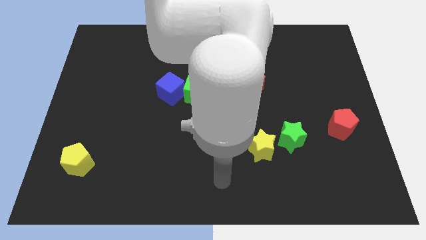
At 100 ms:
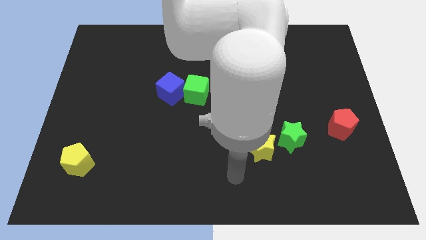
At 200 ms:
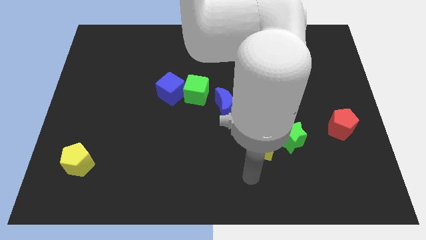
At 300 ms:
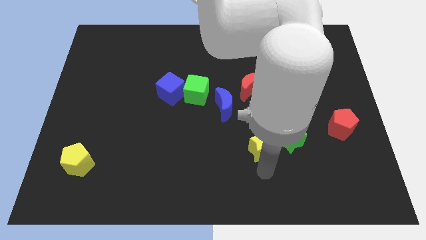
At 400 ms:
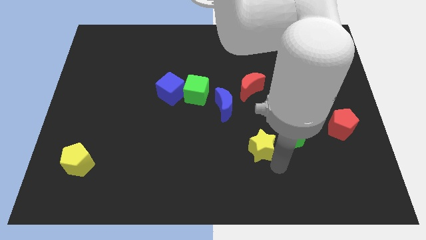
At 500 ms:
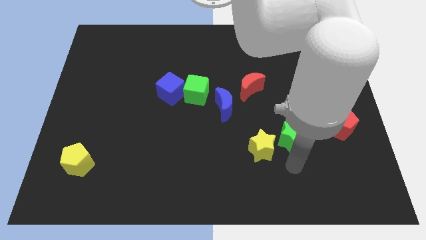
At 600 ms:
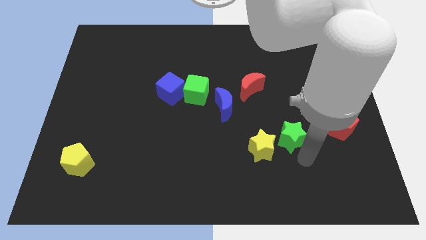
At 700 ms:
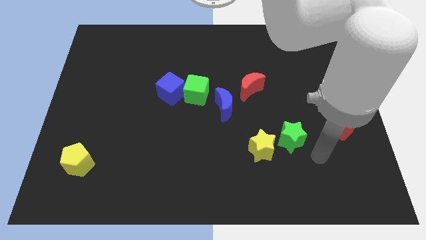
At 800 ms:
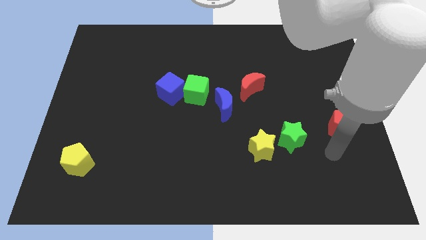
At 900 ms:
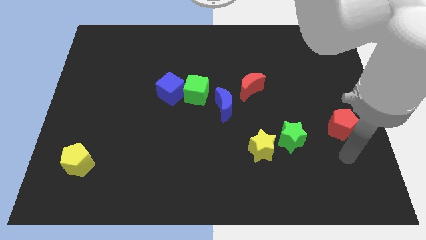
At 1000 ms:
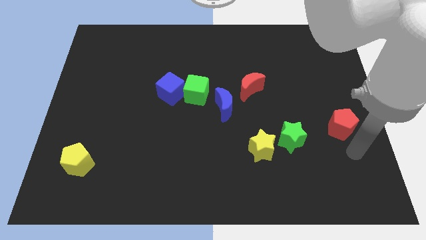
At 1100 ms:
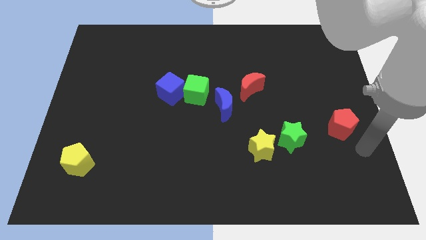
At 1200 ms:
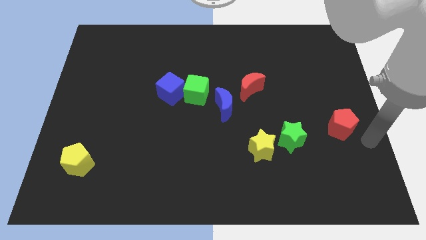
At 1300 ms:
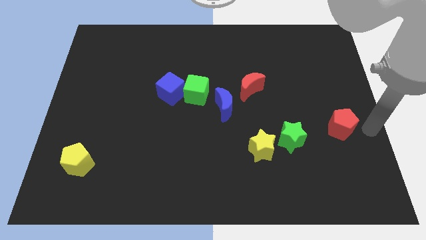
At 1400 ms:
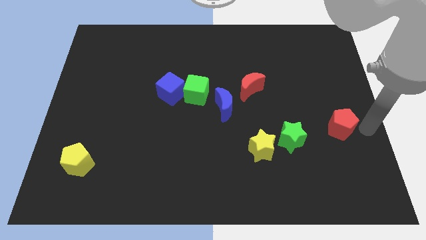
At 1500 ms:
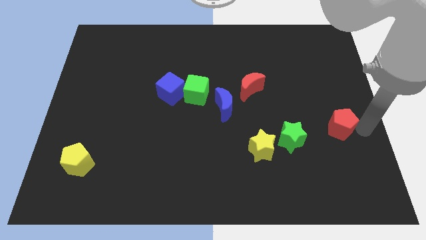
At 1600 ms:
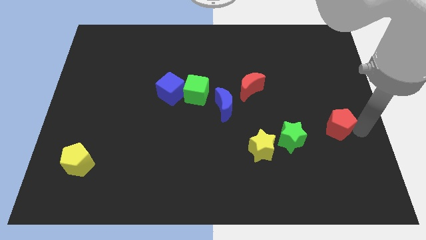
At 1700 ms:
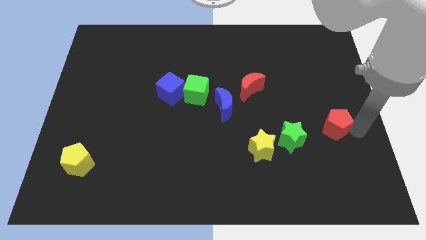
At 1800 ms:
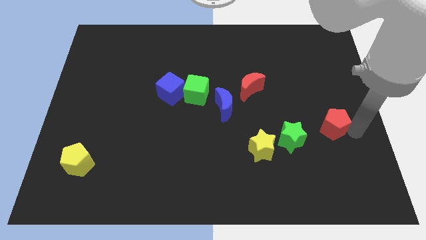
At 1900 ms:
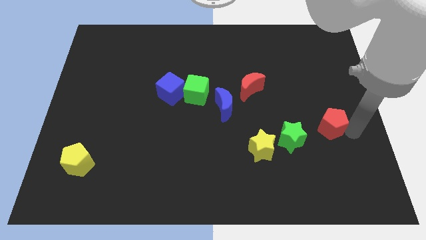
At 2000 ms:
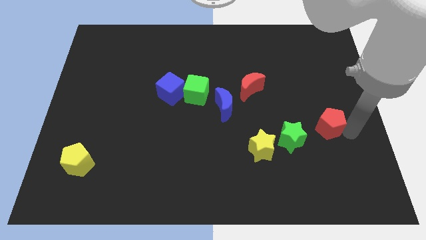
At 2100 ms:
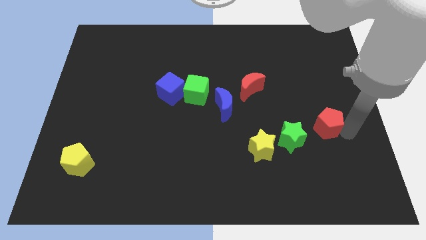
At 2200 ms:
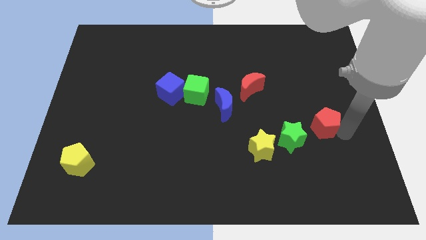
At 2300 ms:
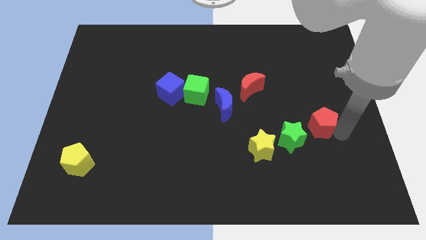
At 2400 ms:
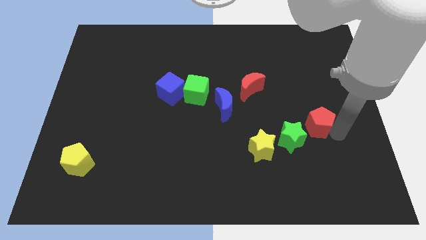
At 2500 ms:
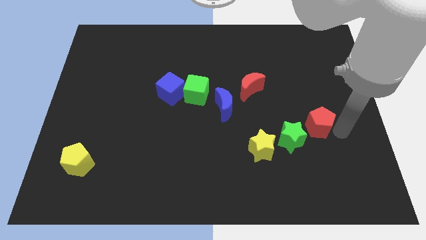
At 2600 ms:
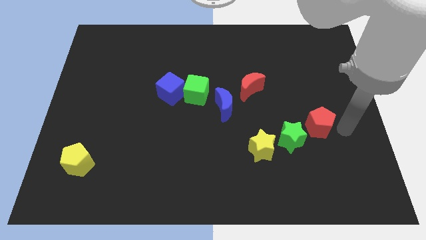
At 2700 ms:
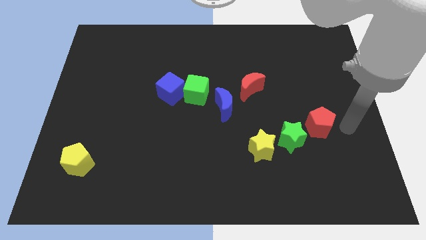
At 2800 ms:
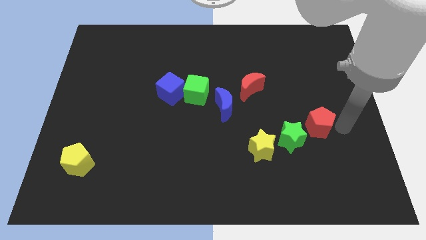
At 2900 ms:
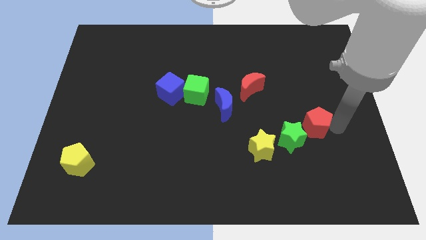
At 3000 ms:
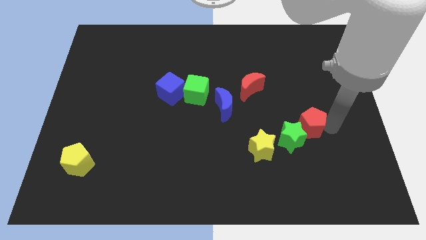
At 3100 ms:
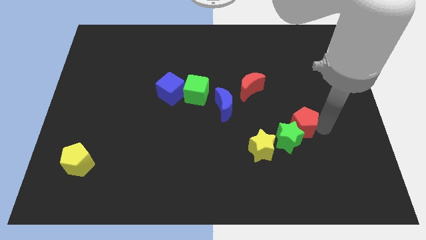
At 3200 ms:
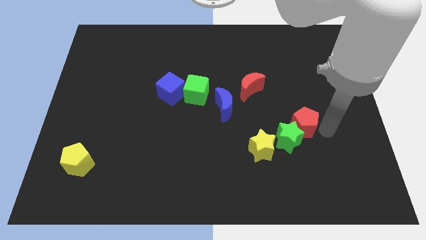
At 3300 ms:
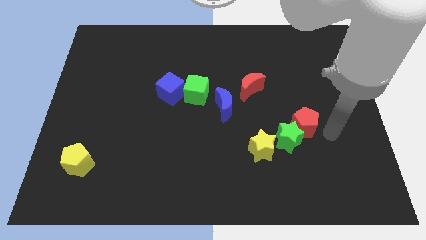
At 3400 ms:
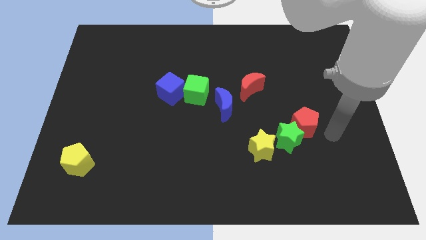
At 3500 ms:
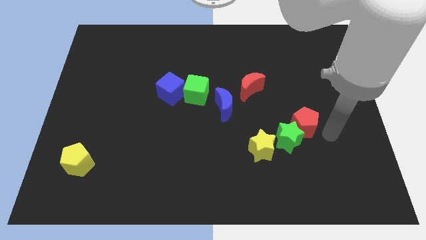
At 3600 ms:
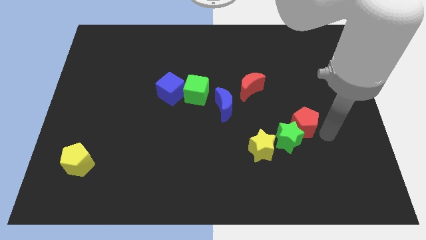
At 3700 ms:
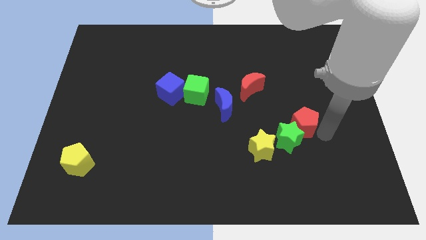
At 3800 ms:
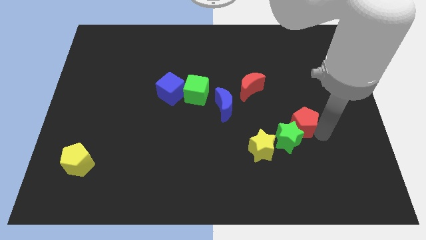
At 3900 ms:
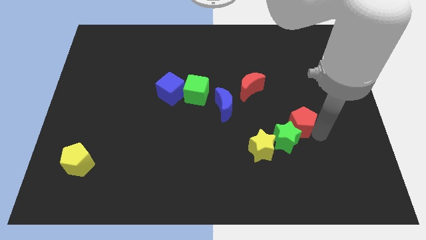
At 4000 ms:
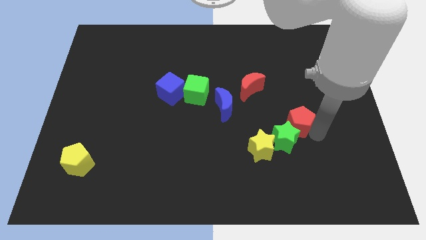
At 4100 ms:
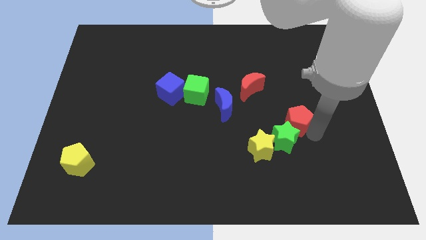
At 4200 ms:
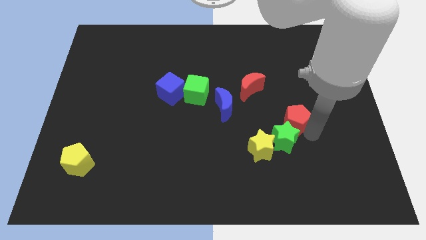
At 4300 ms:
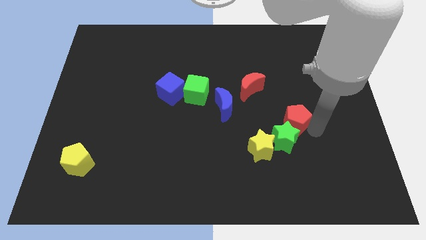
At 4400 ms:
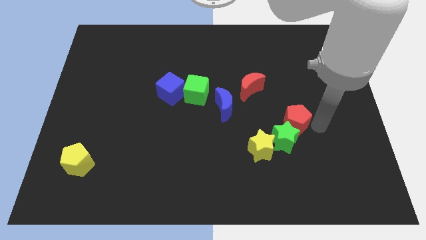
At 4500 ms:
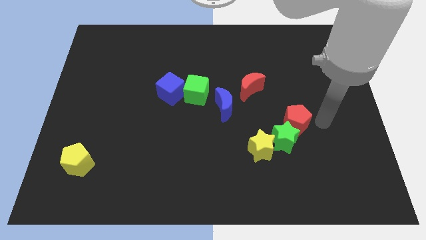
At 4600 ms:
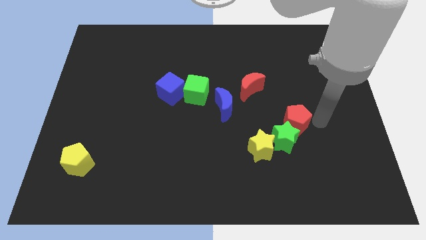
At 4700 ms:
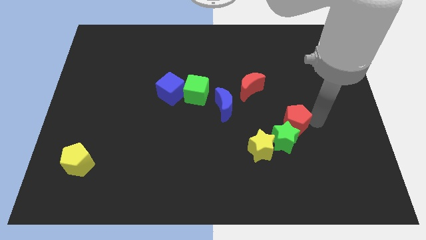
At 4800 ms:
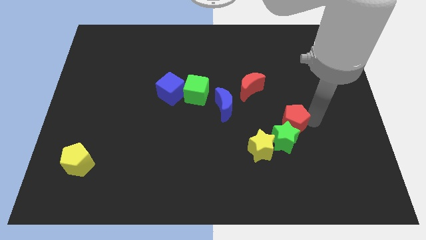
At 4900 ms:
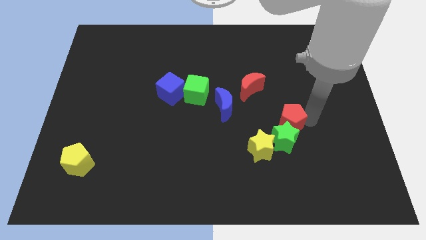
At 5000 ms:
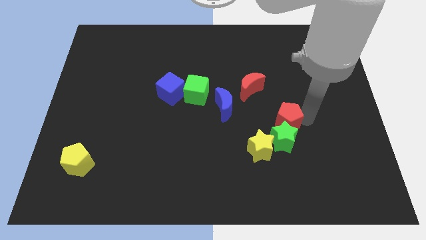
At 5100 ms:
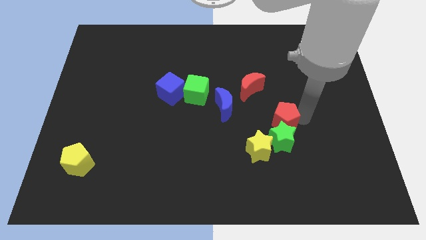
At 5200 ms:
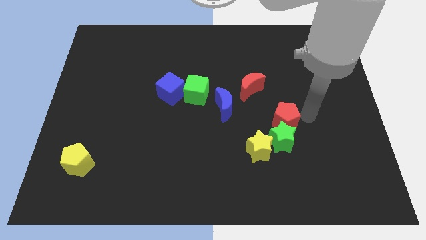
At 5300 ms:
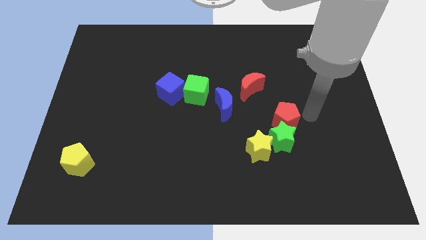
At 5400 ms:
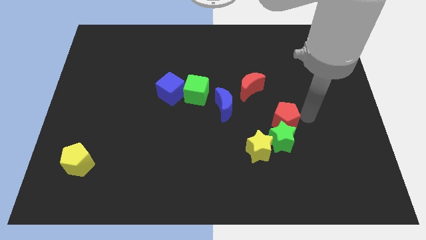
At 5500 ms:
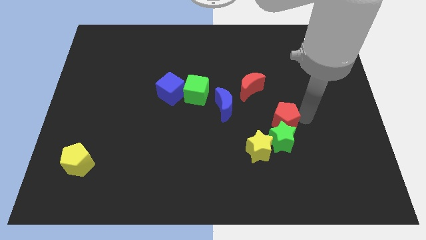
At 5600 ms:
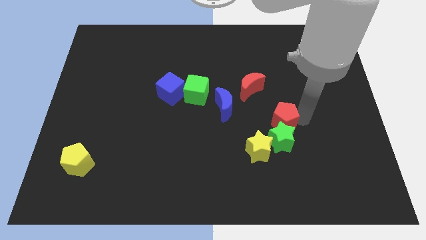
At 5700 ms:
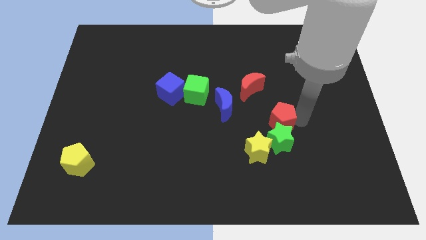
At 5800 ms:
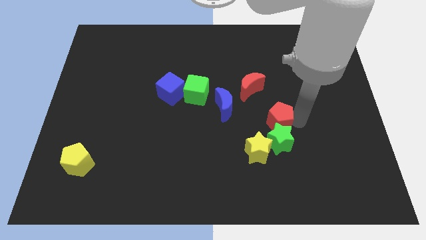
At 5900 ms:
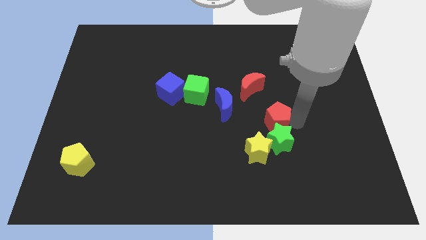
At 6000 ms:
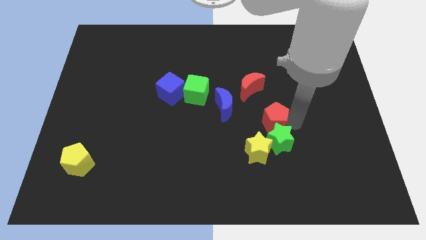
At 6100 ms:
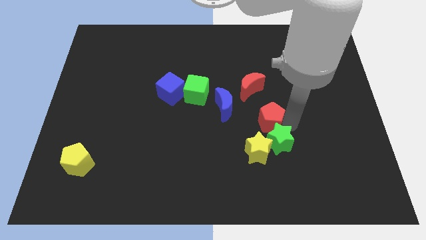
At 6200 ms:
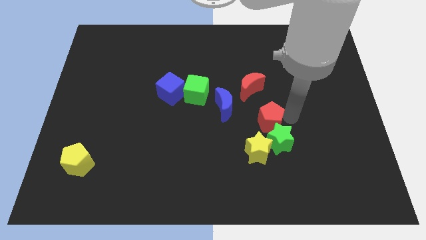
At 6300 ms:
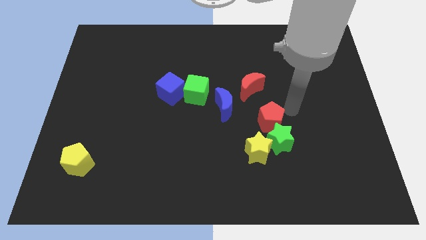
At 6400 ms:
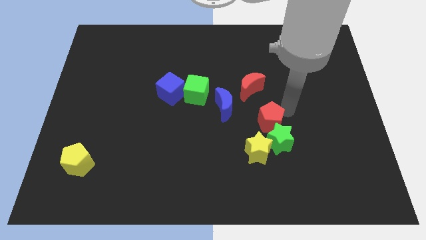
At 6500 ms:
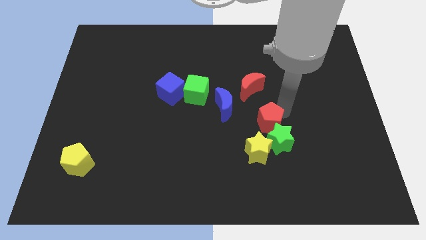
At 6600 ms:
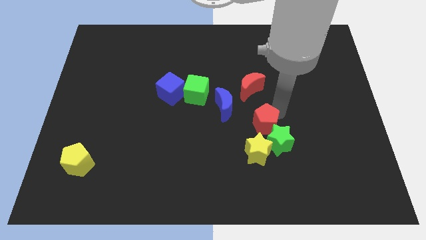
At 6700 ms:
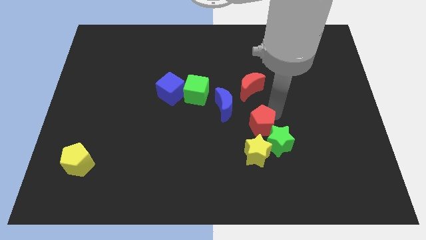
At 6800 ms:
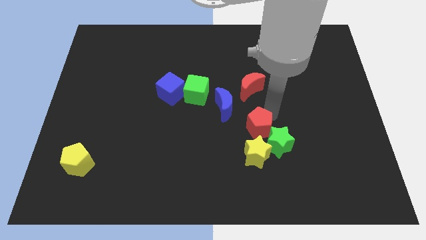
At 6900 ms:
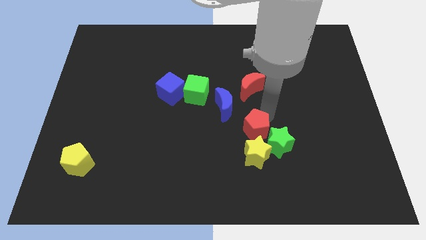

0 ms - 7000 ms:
push the red pentagon to the left of the green star
